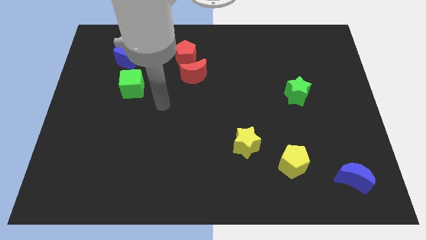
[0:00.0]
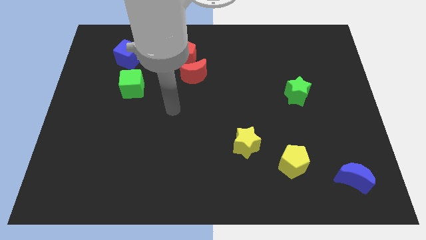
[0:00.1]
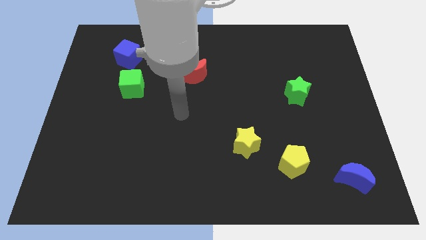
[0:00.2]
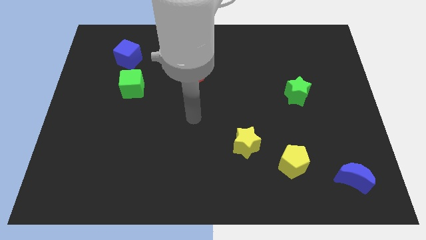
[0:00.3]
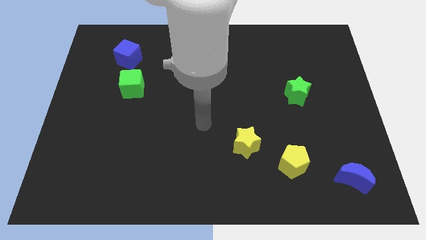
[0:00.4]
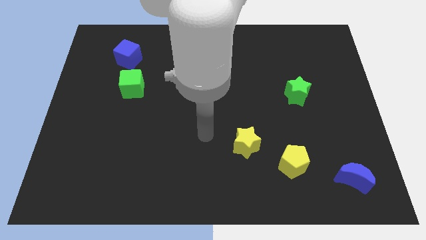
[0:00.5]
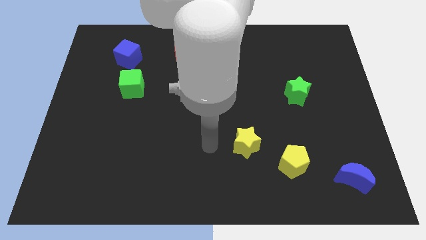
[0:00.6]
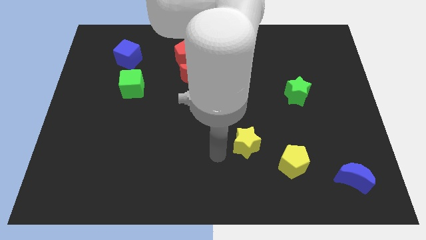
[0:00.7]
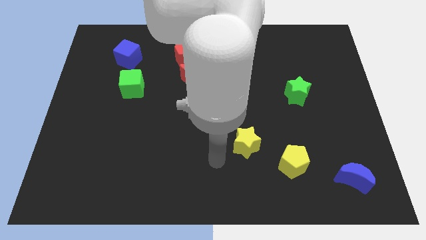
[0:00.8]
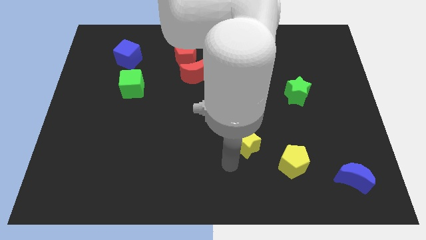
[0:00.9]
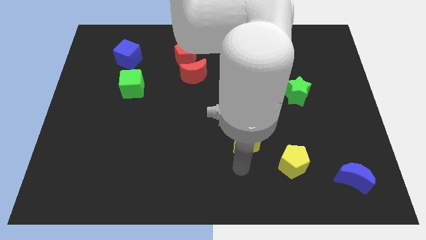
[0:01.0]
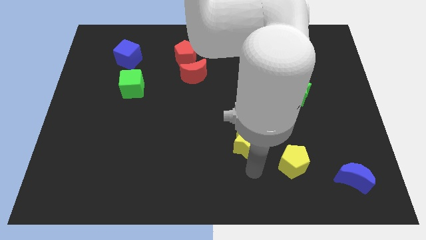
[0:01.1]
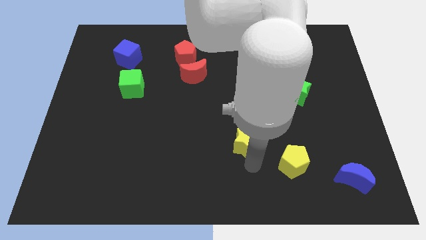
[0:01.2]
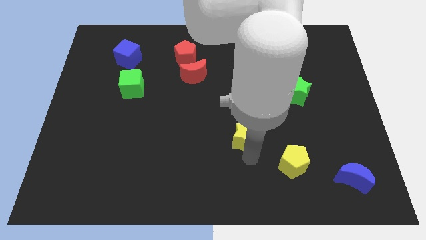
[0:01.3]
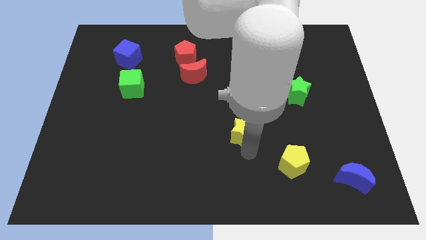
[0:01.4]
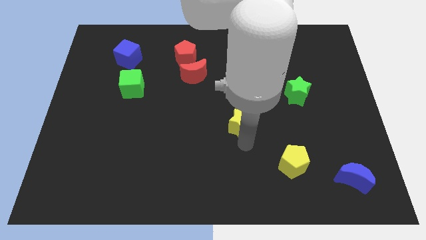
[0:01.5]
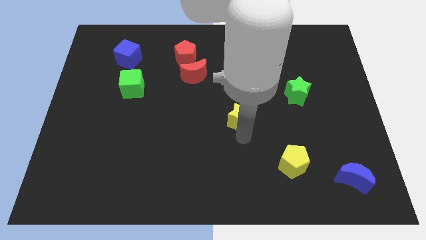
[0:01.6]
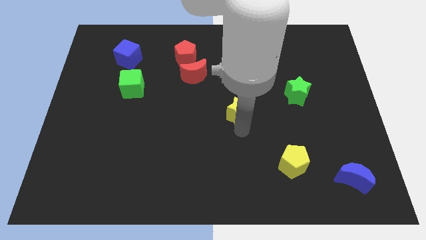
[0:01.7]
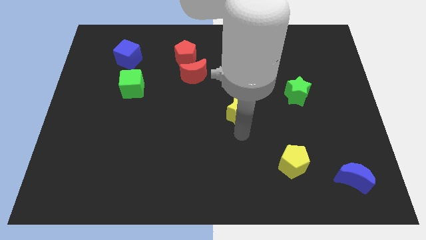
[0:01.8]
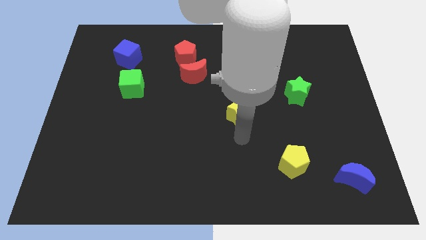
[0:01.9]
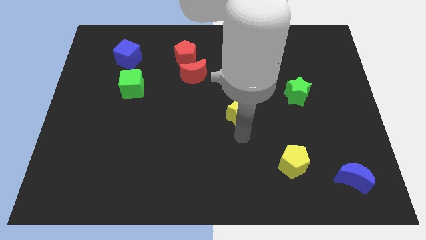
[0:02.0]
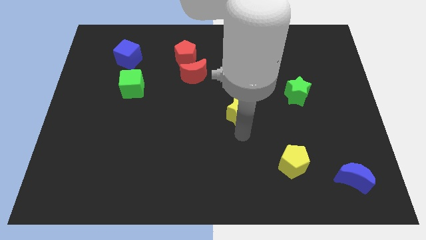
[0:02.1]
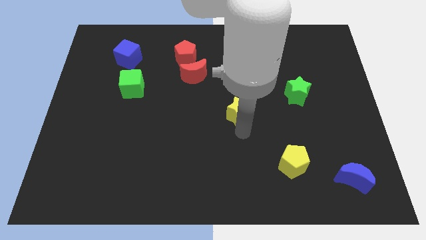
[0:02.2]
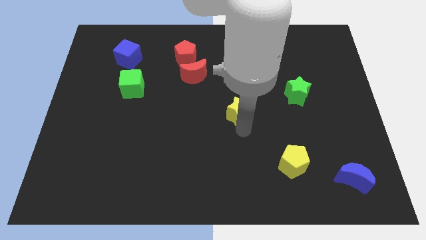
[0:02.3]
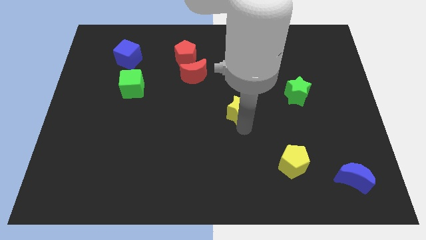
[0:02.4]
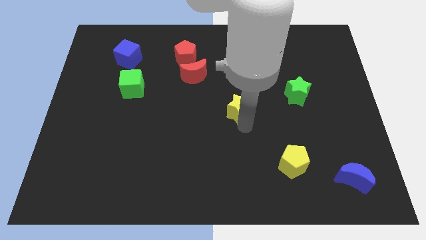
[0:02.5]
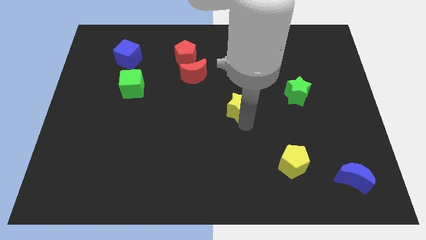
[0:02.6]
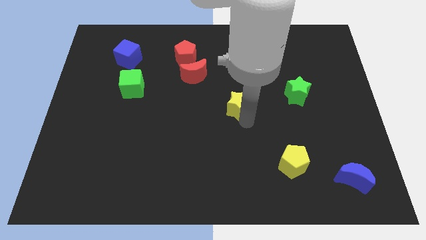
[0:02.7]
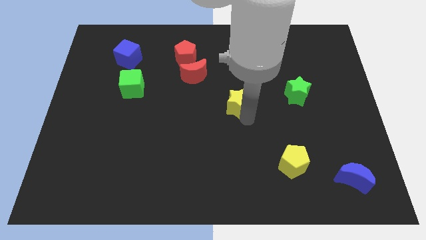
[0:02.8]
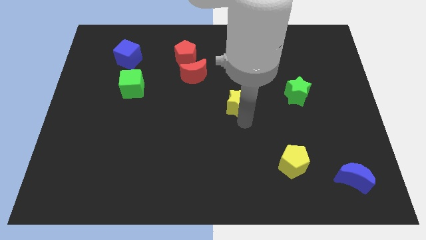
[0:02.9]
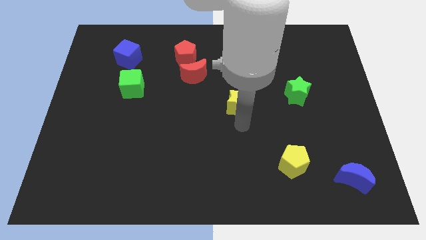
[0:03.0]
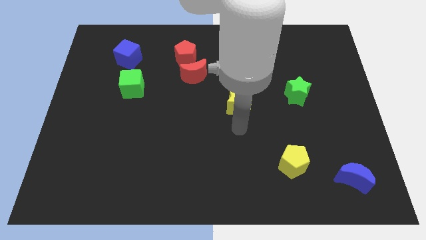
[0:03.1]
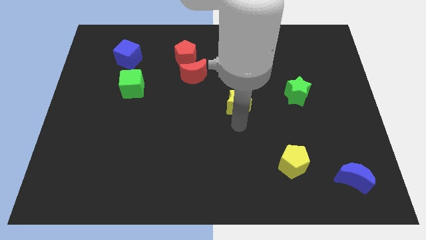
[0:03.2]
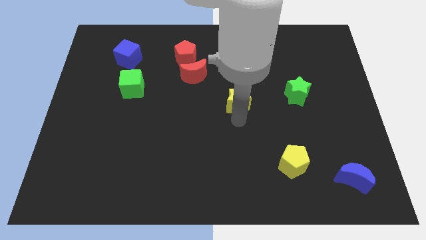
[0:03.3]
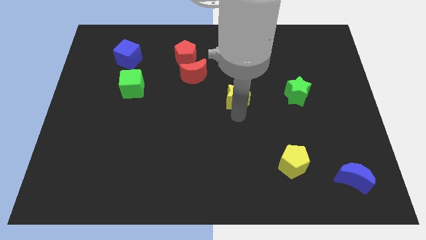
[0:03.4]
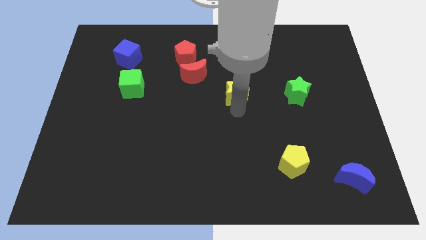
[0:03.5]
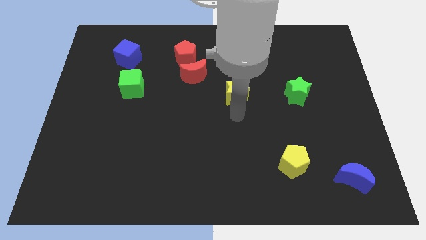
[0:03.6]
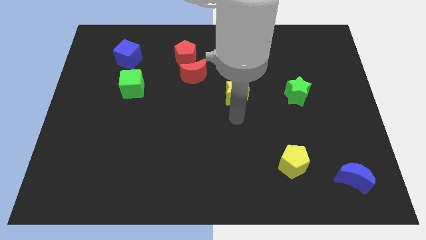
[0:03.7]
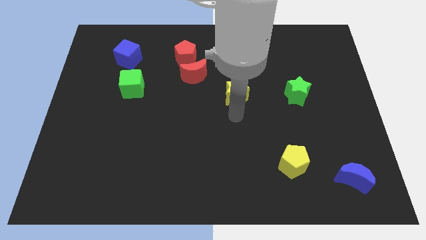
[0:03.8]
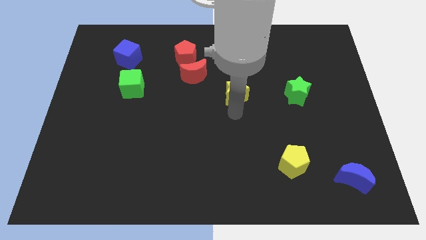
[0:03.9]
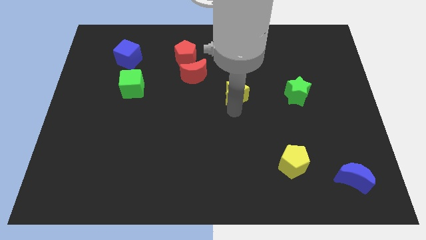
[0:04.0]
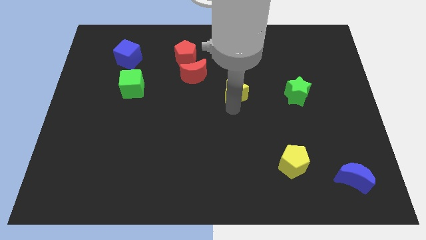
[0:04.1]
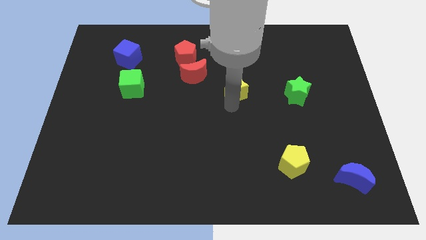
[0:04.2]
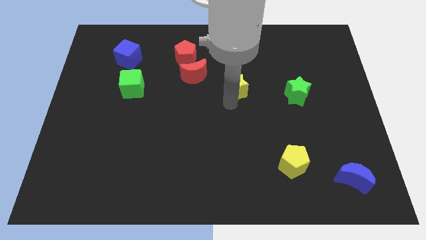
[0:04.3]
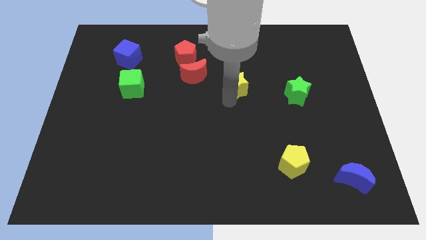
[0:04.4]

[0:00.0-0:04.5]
slide the yellow star to the right of the red moon

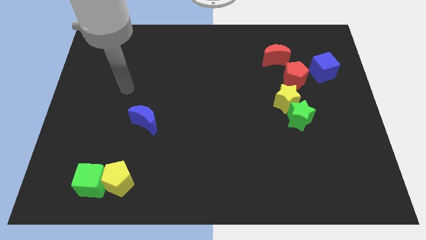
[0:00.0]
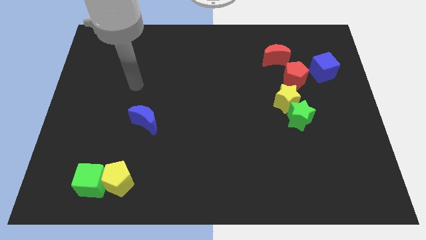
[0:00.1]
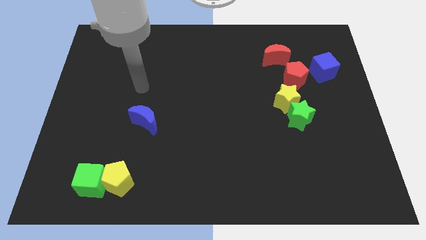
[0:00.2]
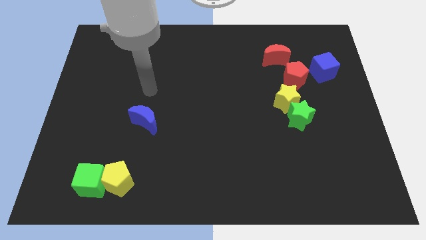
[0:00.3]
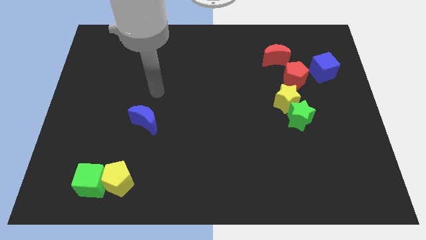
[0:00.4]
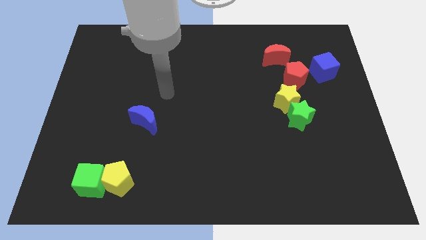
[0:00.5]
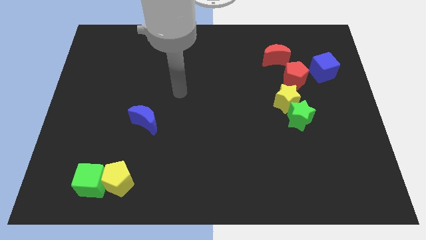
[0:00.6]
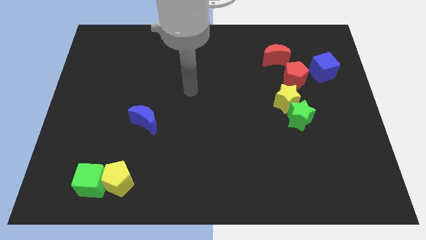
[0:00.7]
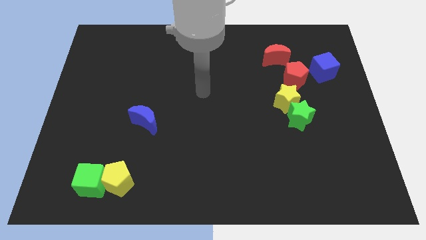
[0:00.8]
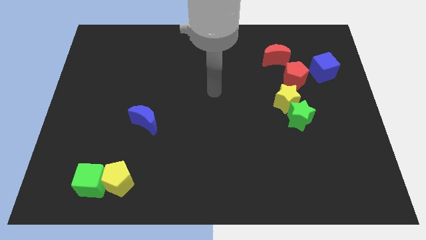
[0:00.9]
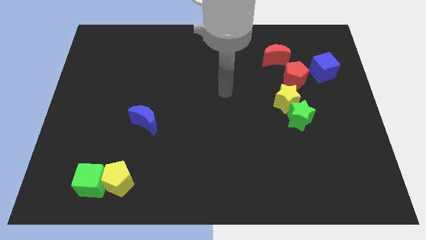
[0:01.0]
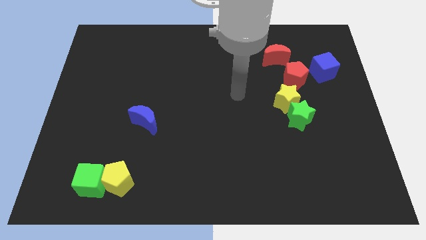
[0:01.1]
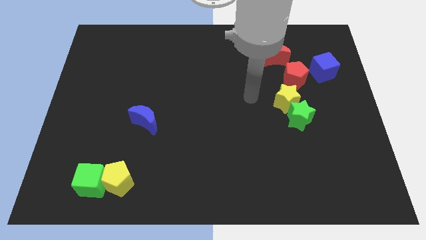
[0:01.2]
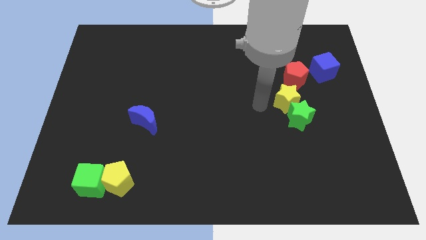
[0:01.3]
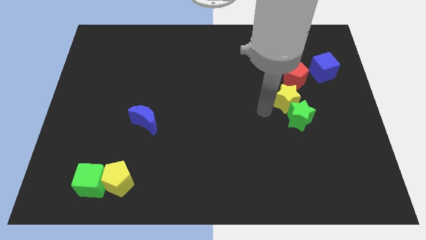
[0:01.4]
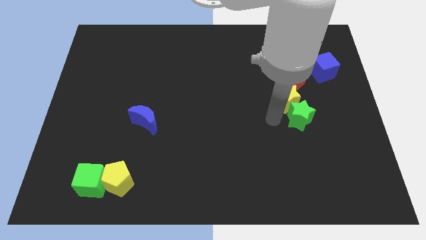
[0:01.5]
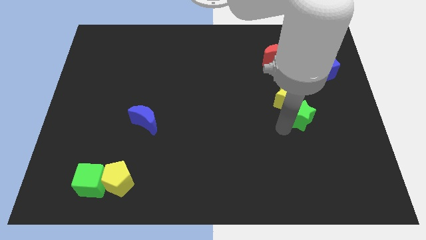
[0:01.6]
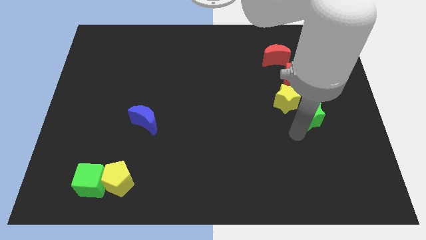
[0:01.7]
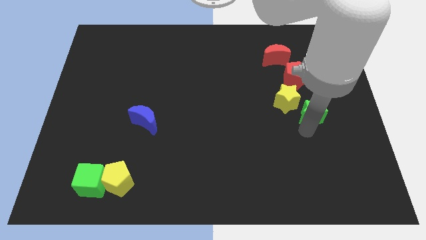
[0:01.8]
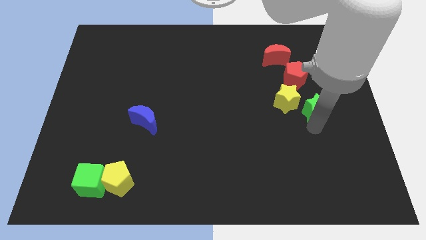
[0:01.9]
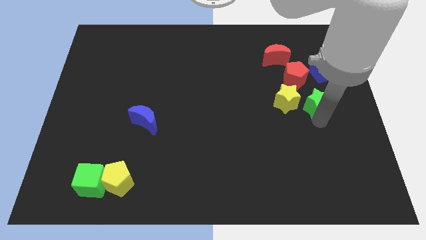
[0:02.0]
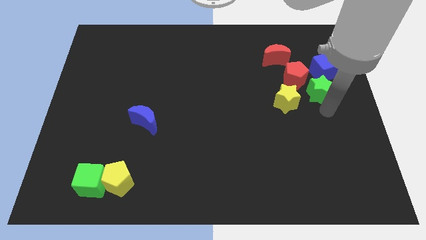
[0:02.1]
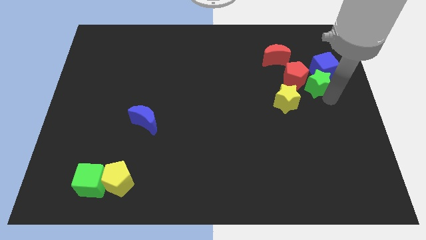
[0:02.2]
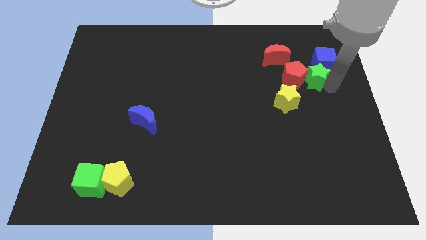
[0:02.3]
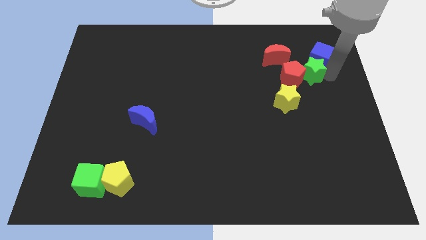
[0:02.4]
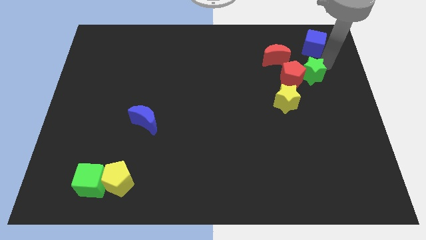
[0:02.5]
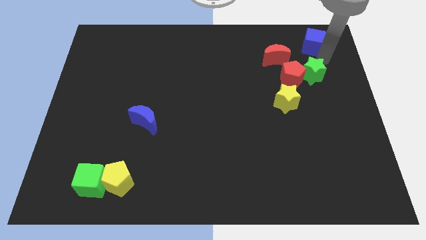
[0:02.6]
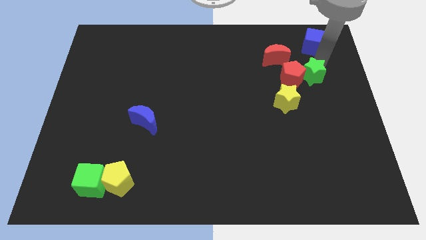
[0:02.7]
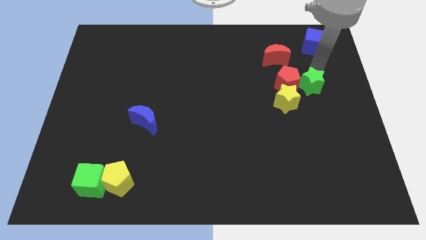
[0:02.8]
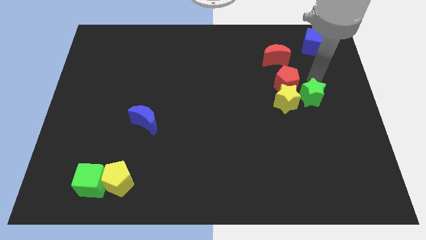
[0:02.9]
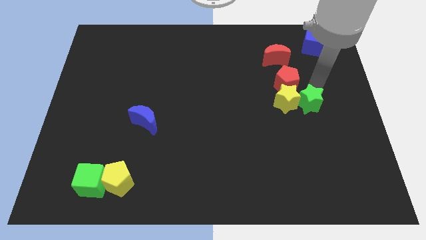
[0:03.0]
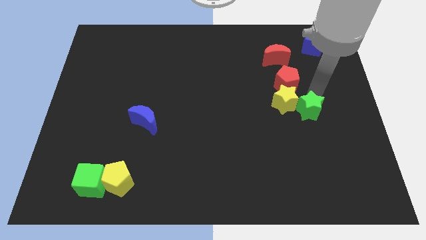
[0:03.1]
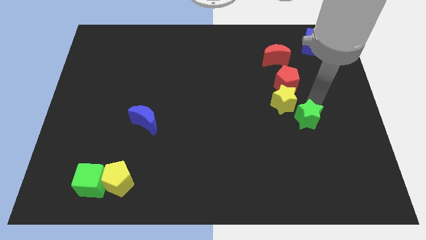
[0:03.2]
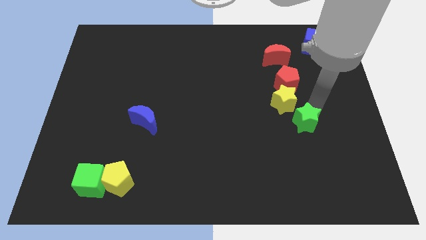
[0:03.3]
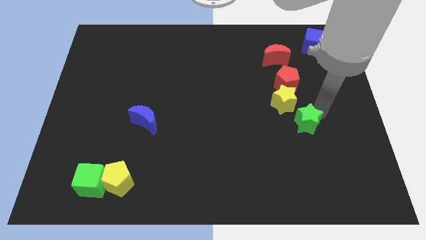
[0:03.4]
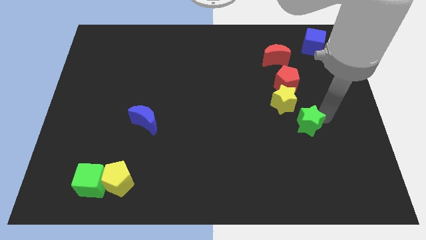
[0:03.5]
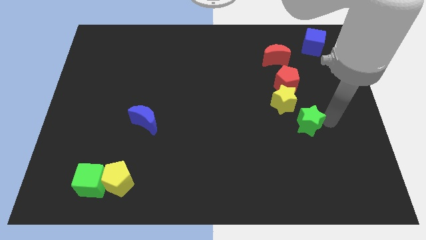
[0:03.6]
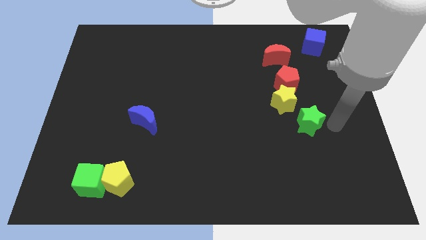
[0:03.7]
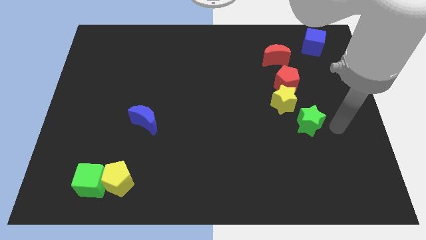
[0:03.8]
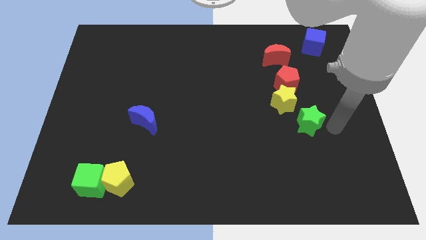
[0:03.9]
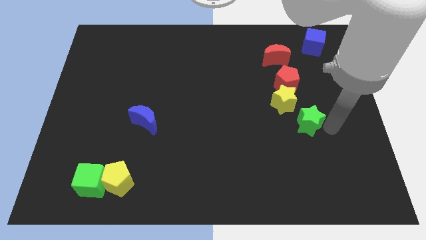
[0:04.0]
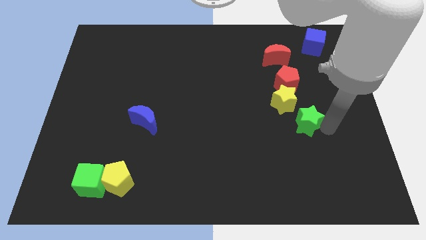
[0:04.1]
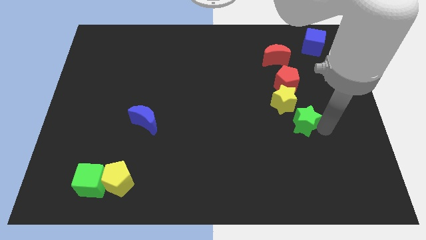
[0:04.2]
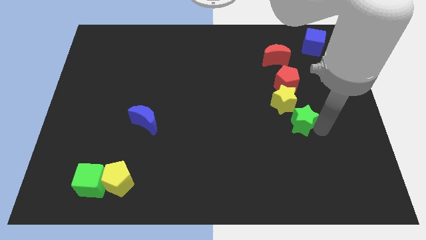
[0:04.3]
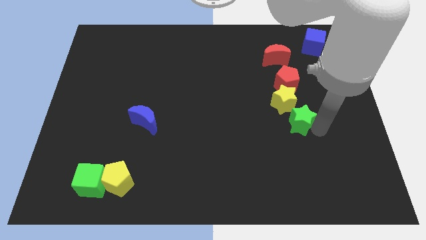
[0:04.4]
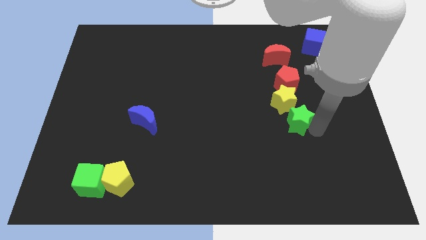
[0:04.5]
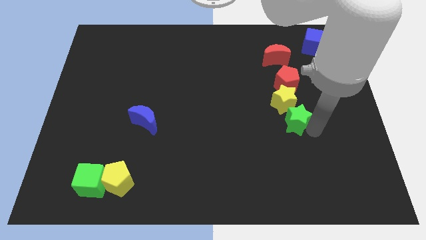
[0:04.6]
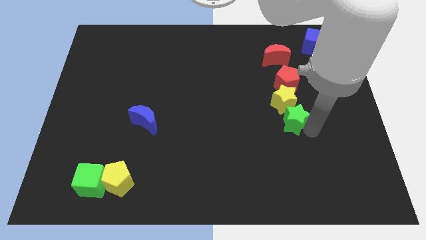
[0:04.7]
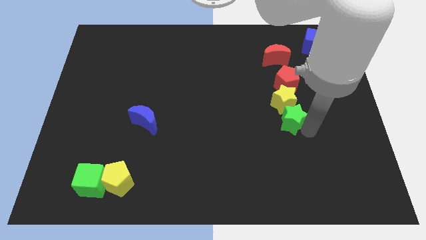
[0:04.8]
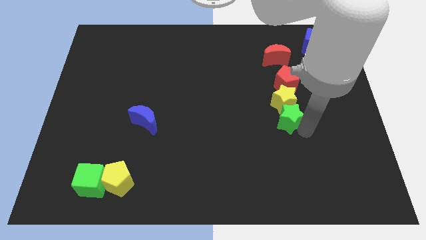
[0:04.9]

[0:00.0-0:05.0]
push the green star to the bottom left side of the yellow star
